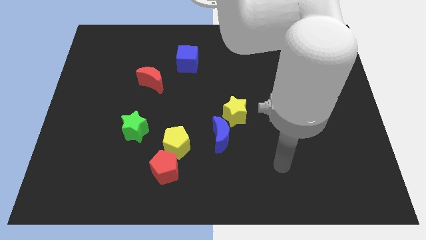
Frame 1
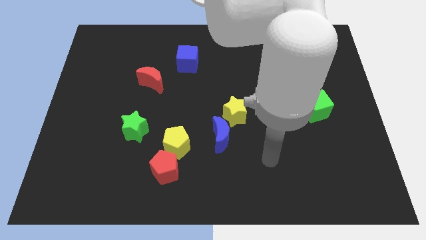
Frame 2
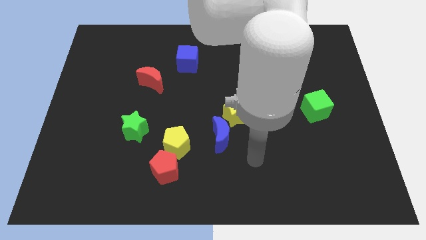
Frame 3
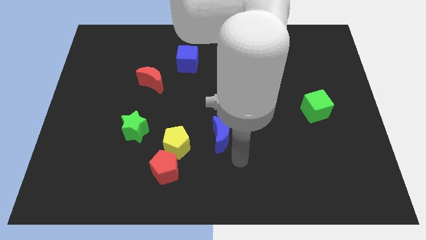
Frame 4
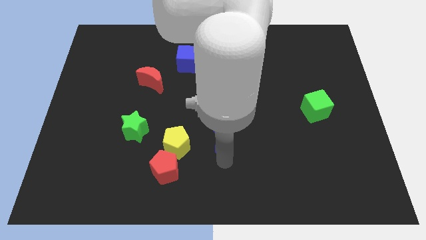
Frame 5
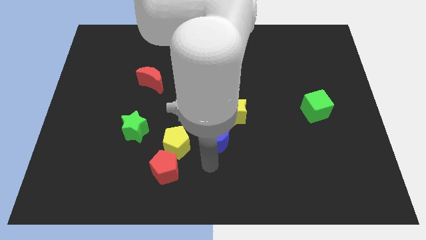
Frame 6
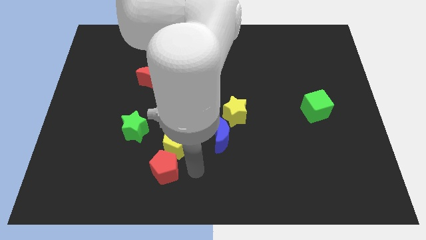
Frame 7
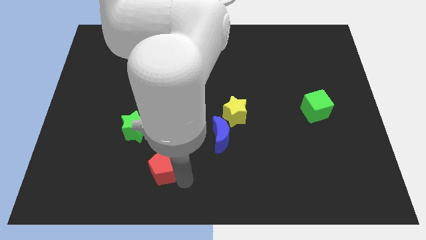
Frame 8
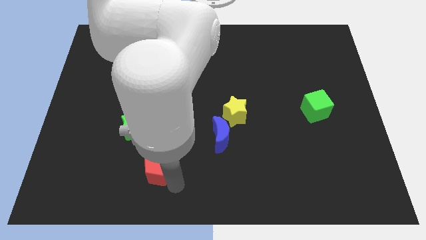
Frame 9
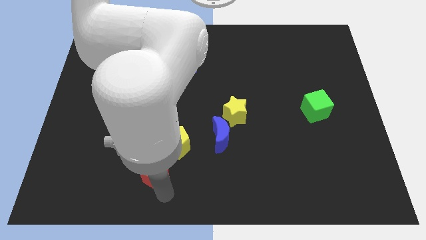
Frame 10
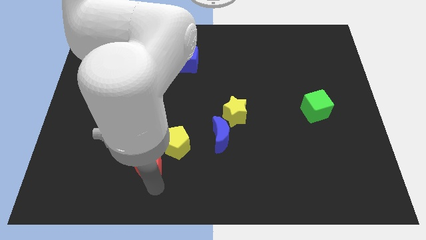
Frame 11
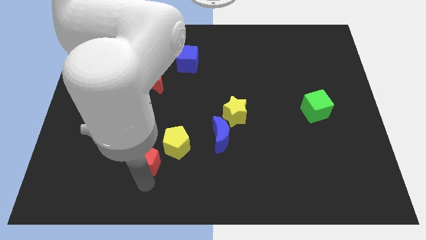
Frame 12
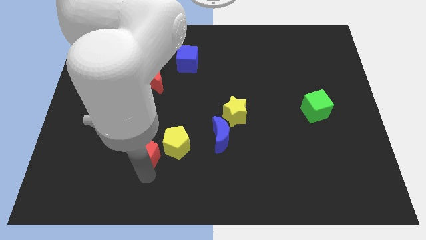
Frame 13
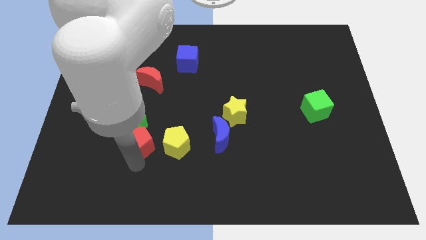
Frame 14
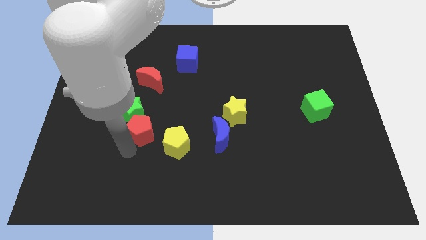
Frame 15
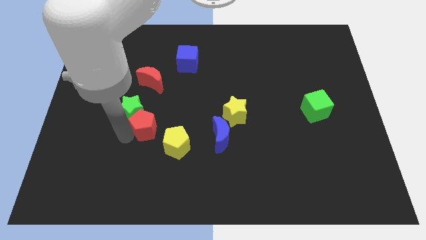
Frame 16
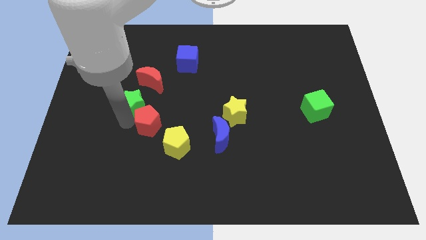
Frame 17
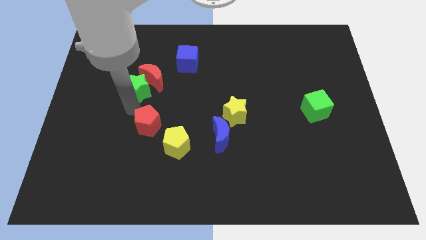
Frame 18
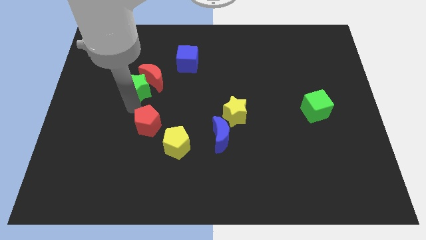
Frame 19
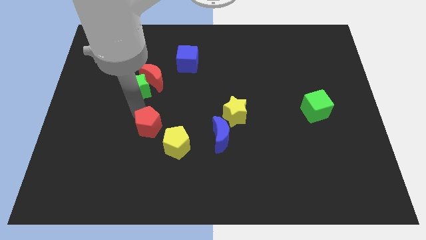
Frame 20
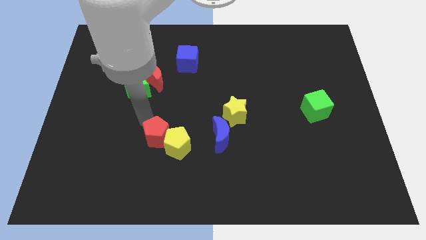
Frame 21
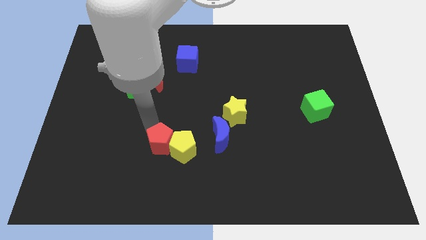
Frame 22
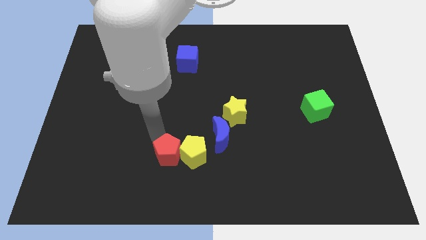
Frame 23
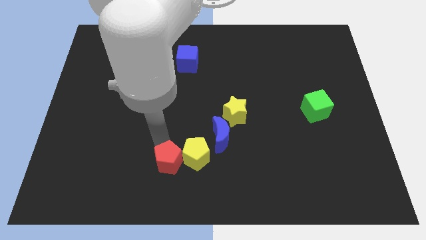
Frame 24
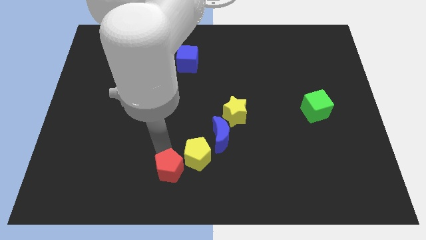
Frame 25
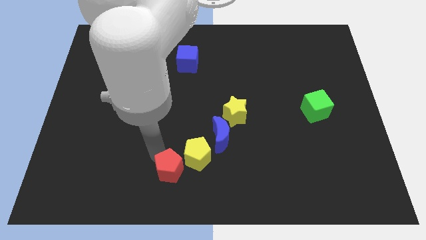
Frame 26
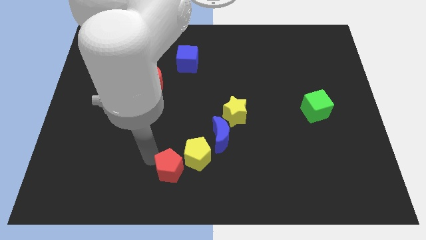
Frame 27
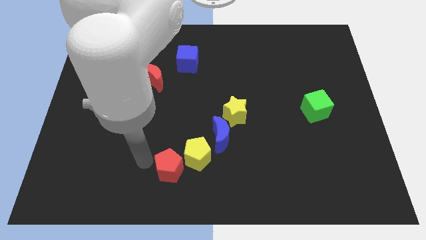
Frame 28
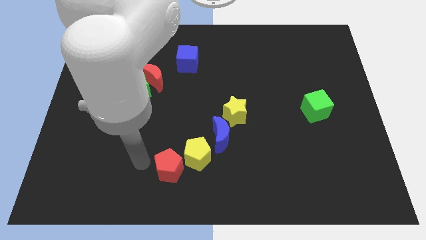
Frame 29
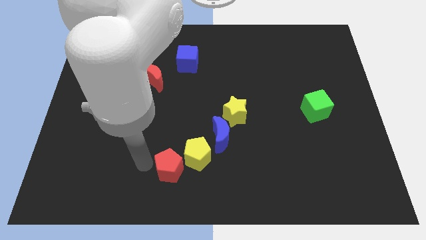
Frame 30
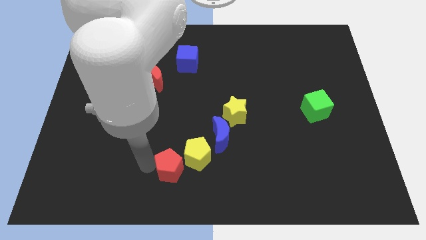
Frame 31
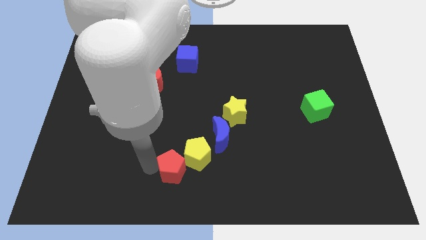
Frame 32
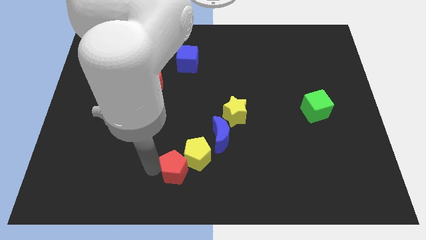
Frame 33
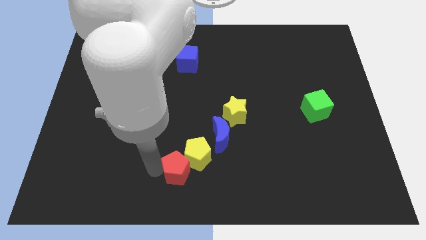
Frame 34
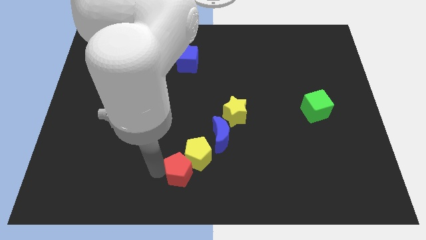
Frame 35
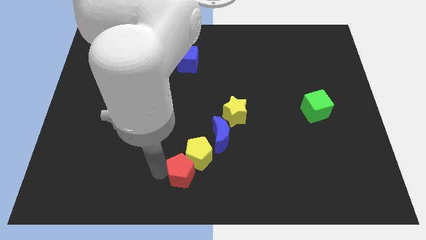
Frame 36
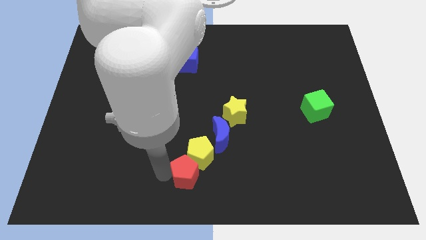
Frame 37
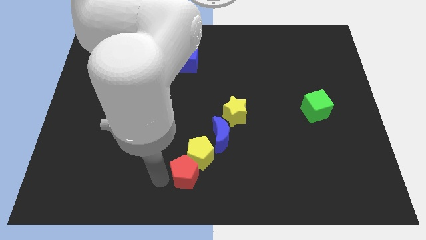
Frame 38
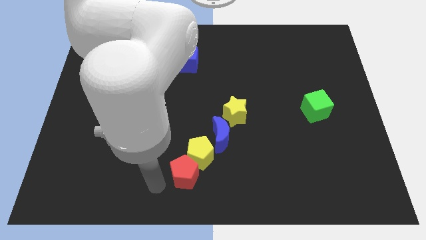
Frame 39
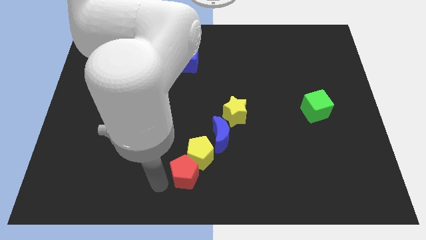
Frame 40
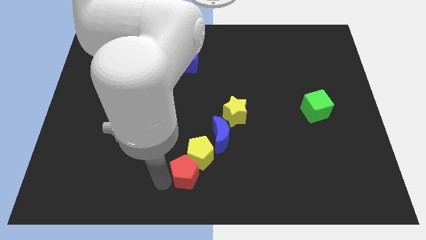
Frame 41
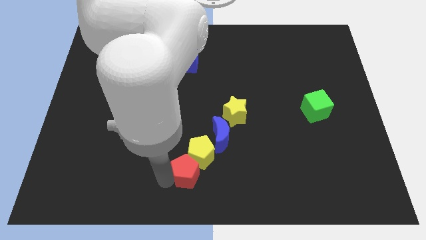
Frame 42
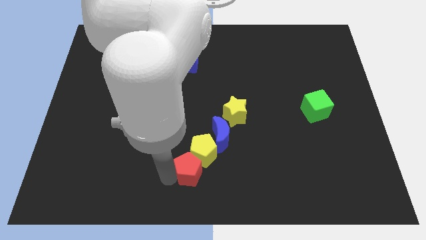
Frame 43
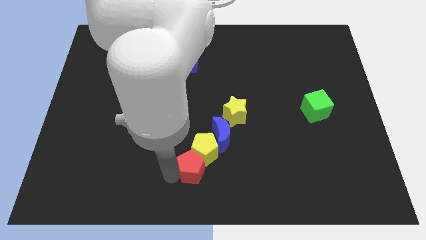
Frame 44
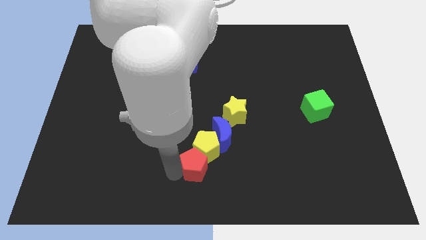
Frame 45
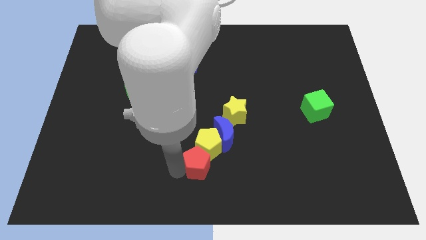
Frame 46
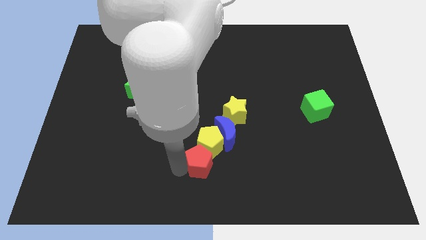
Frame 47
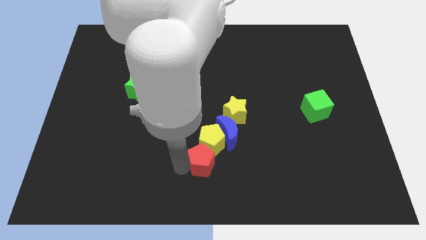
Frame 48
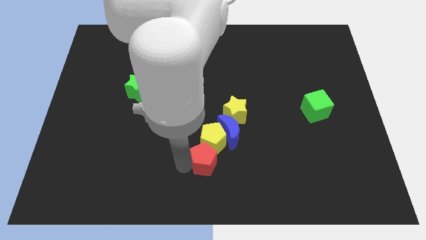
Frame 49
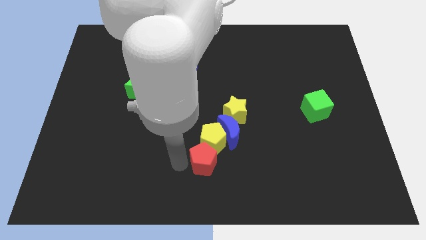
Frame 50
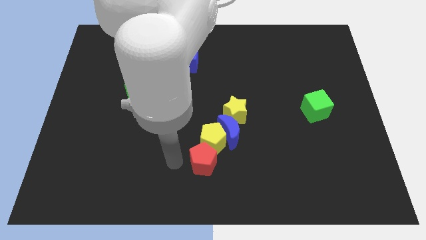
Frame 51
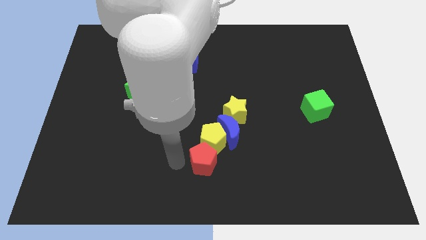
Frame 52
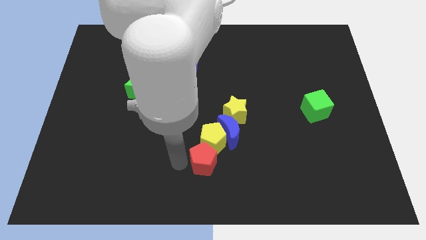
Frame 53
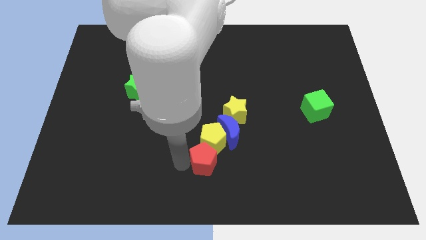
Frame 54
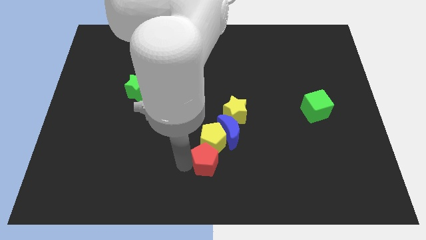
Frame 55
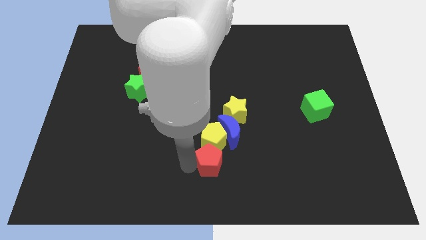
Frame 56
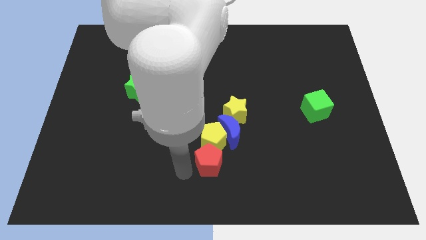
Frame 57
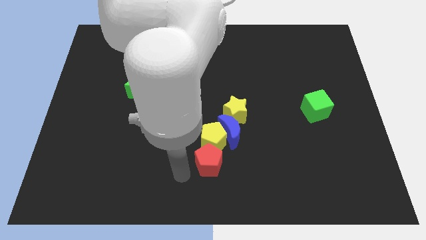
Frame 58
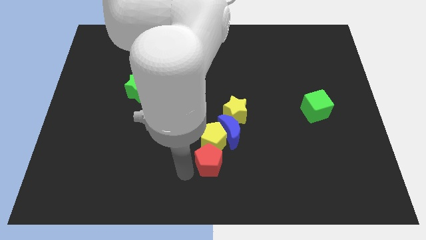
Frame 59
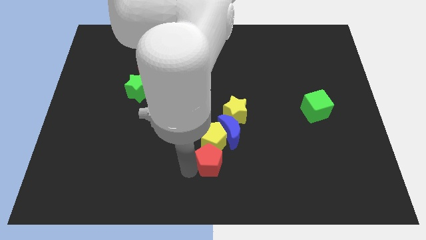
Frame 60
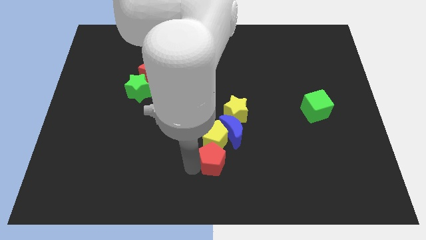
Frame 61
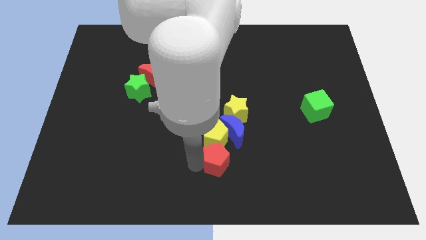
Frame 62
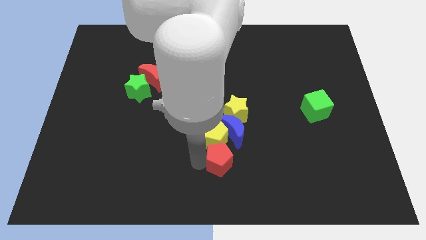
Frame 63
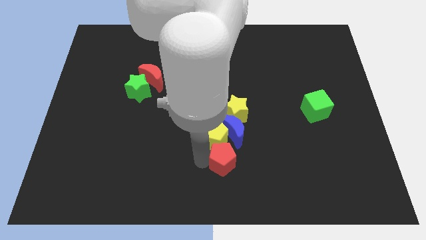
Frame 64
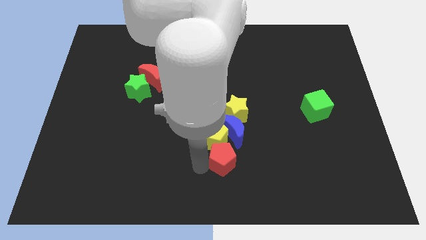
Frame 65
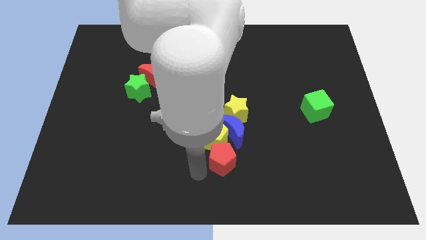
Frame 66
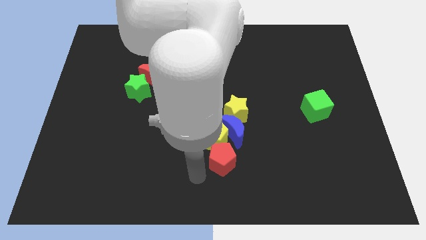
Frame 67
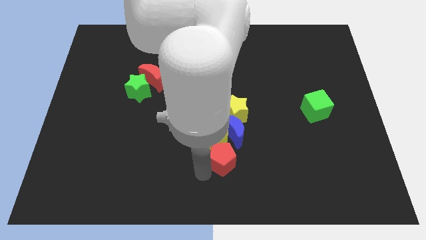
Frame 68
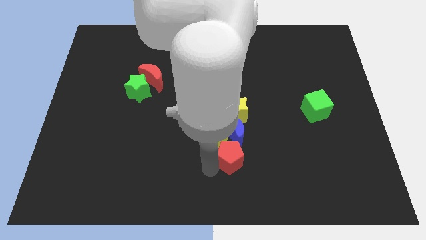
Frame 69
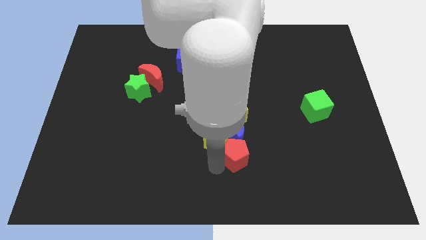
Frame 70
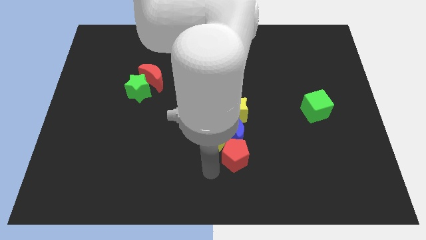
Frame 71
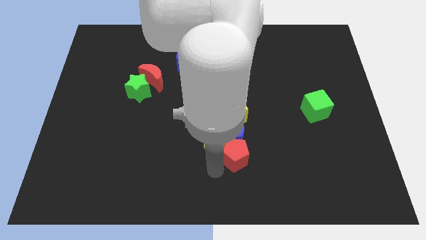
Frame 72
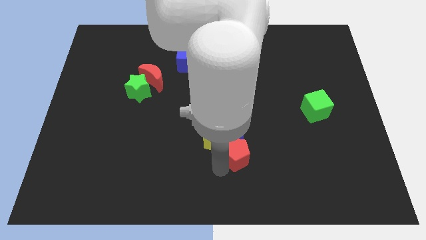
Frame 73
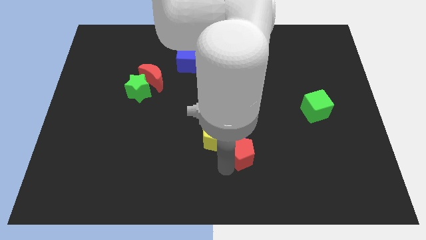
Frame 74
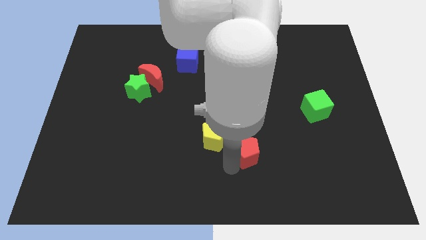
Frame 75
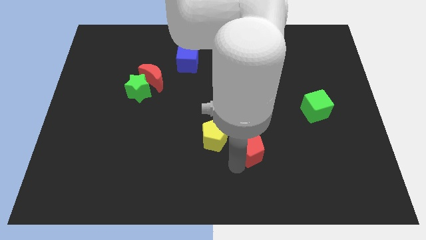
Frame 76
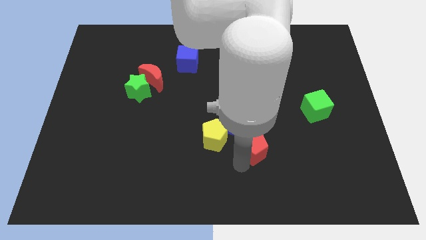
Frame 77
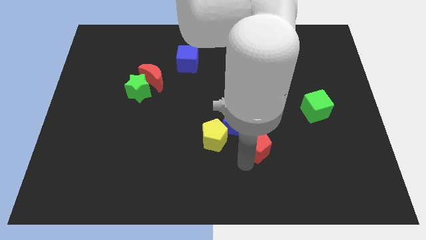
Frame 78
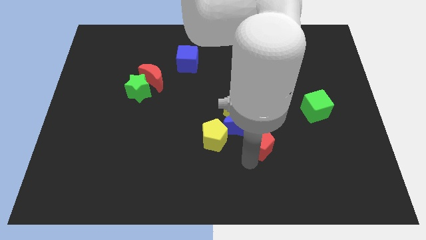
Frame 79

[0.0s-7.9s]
put the red pentagon just right of the blue moon
